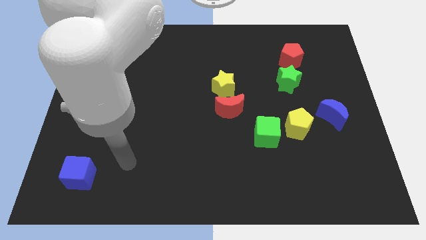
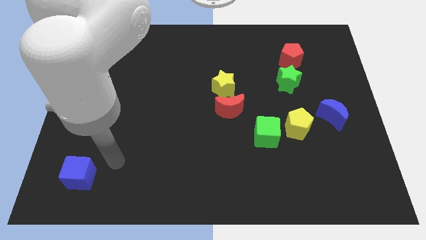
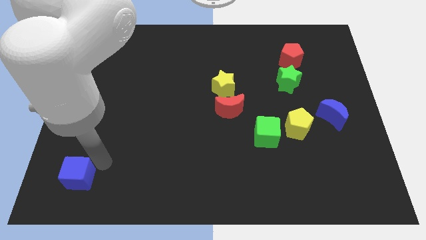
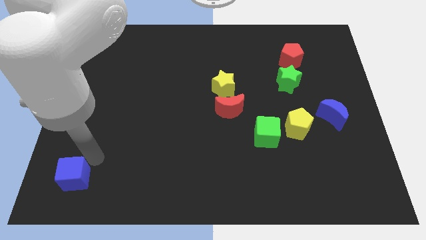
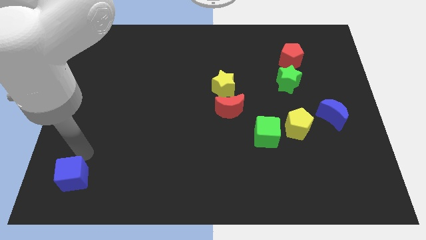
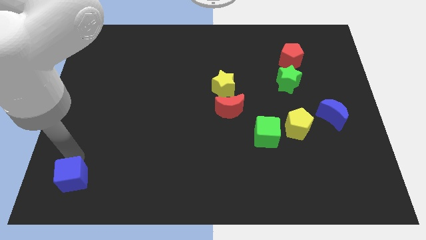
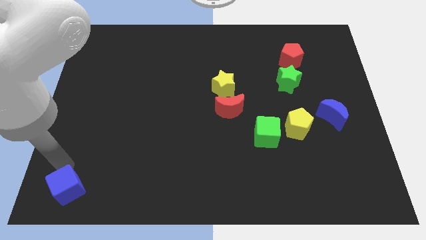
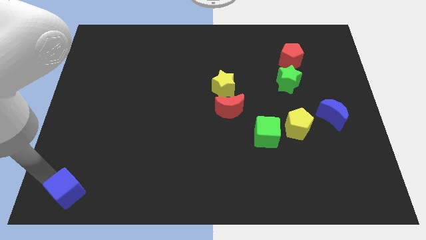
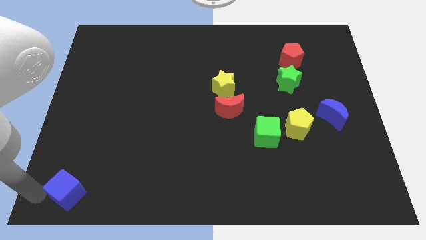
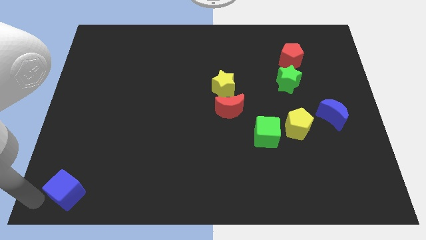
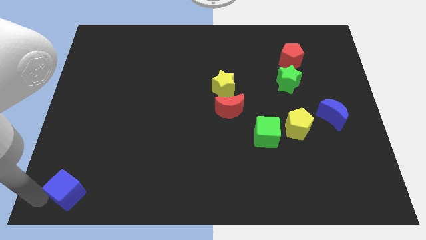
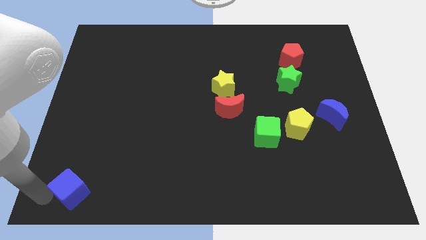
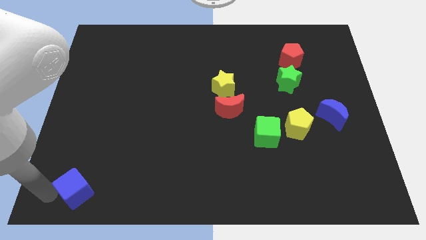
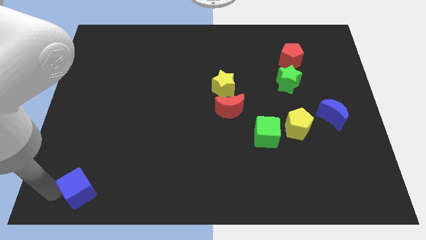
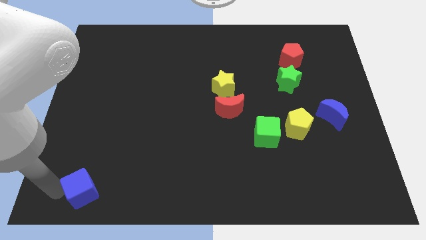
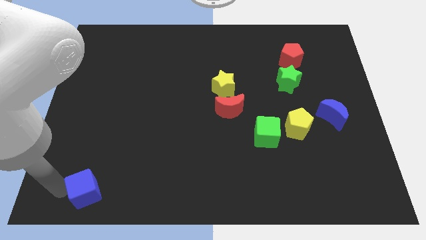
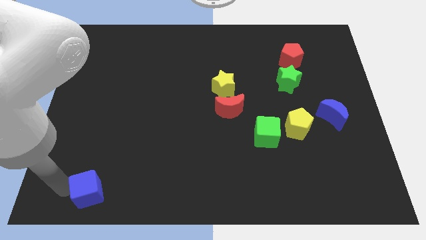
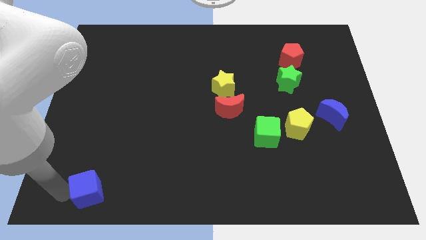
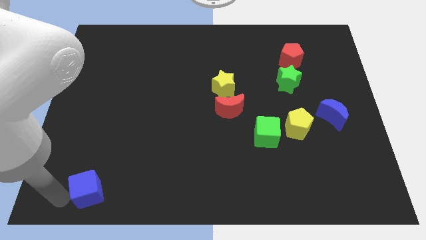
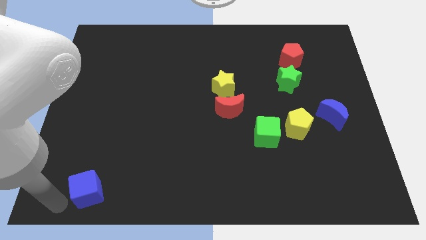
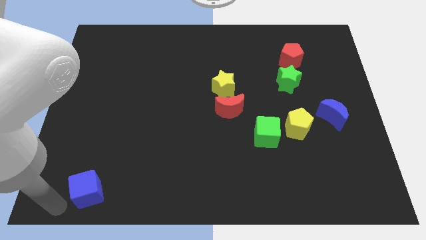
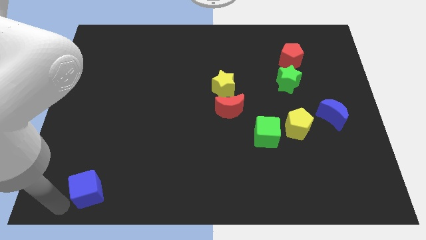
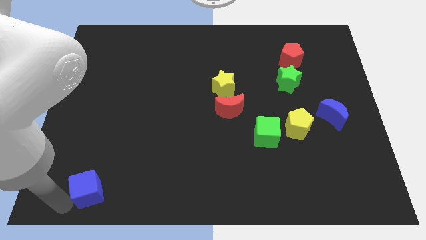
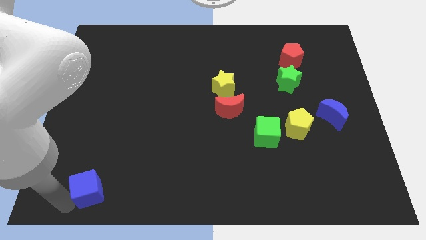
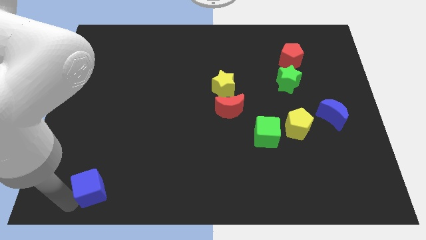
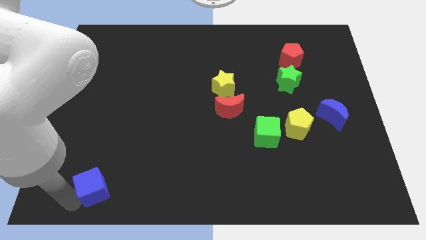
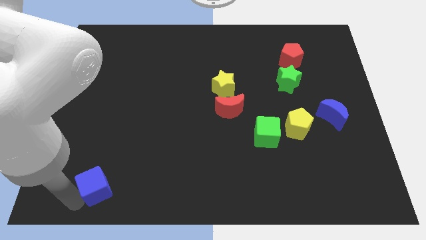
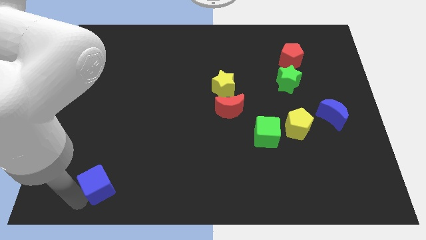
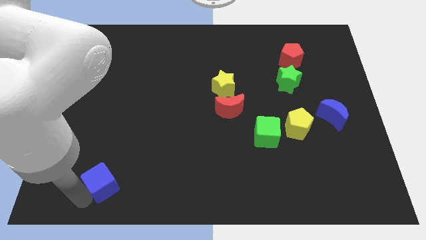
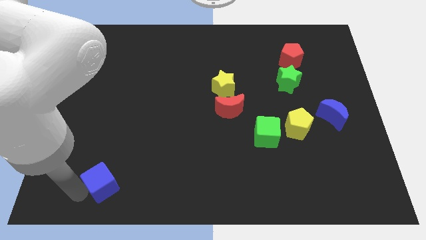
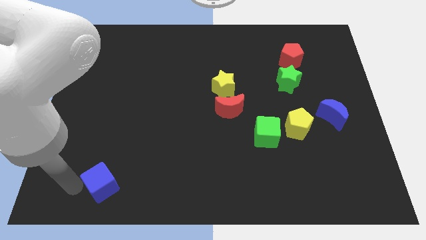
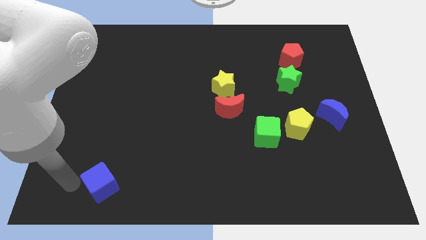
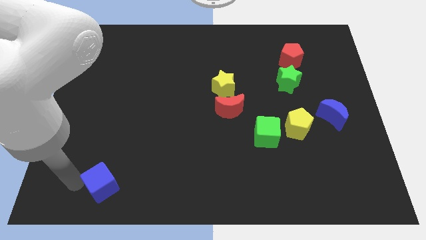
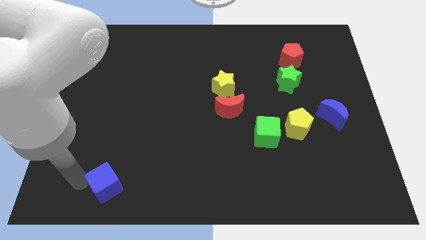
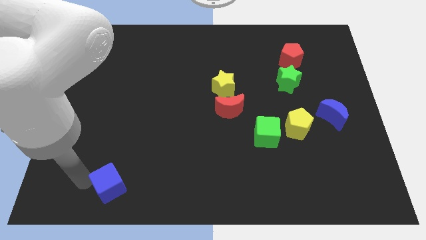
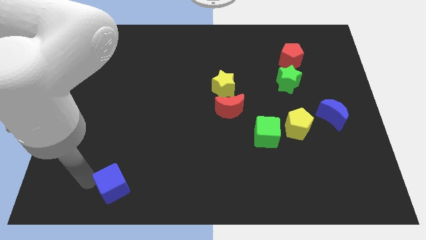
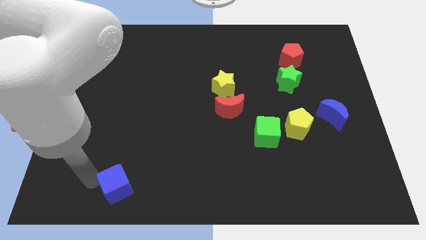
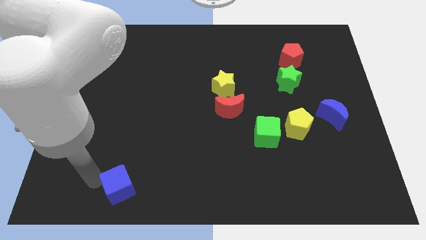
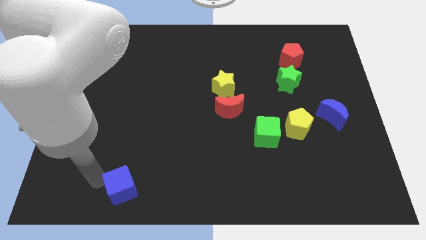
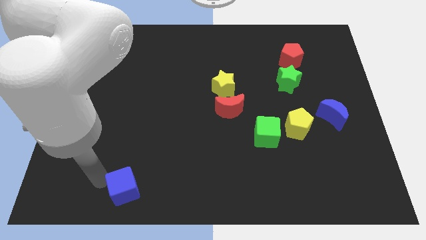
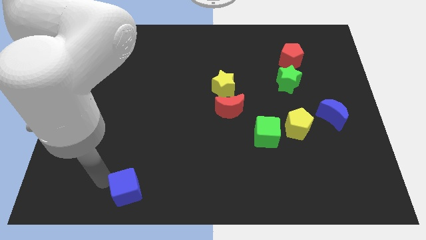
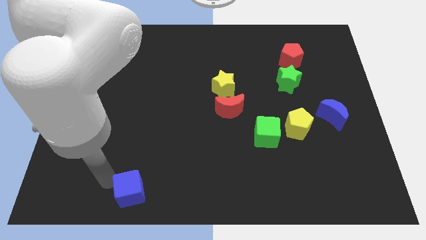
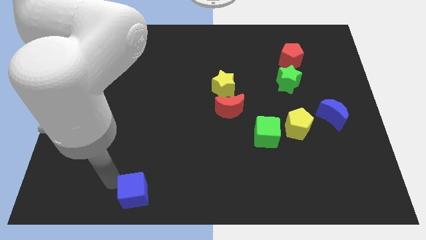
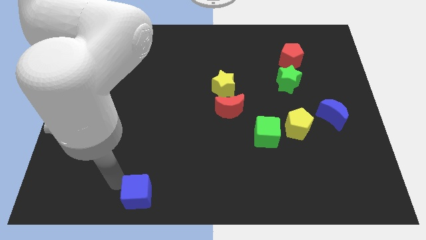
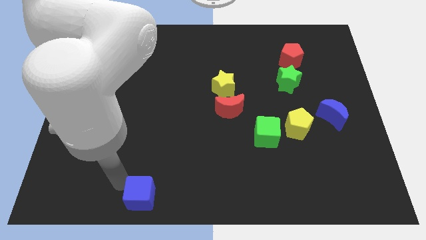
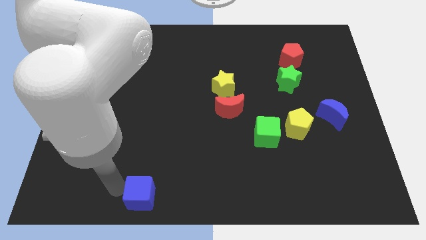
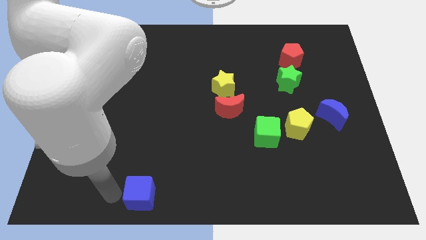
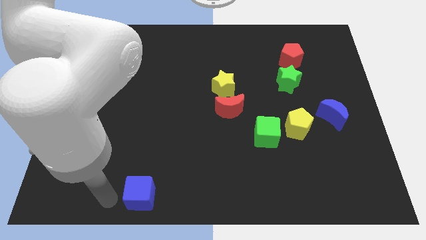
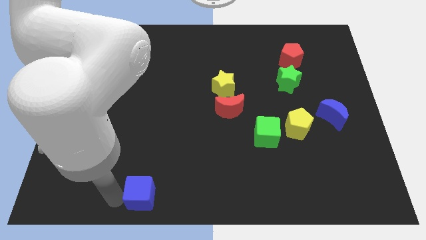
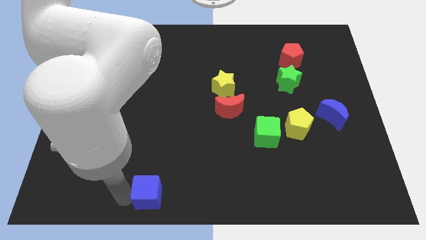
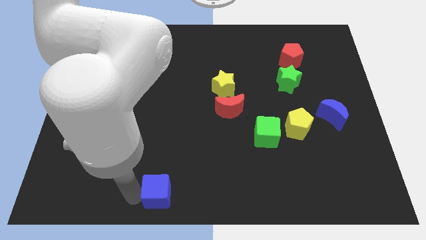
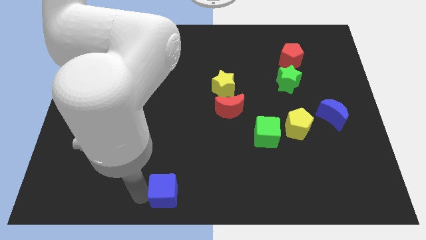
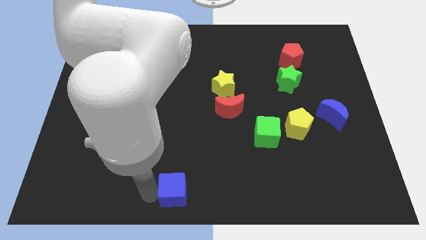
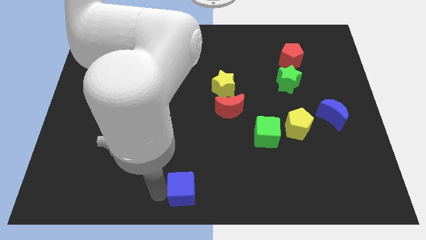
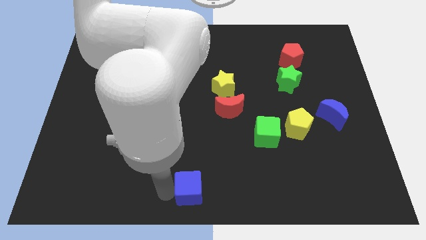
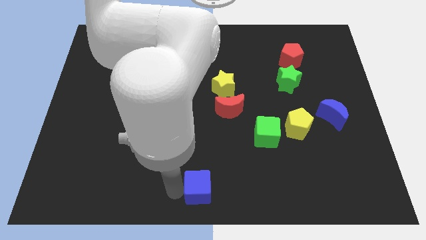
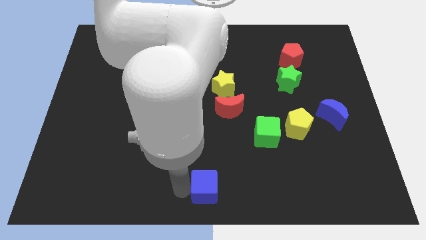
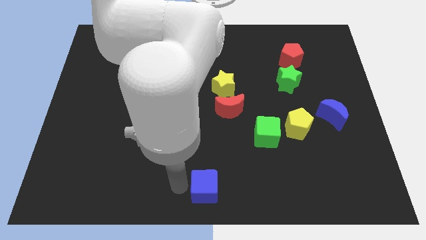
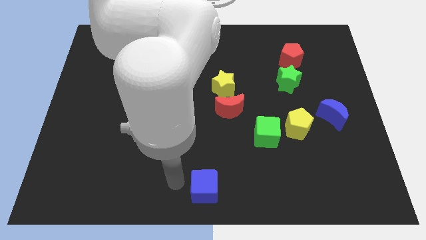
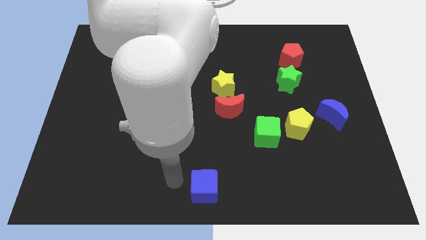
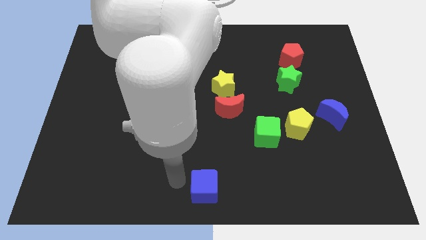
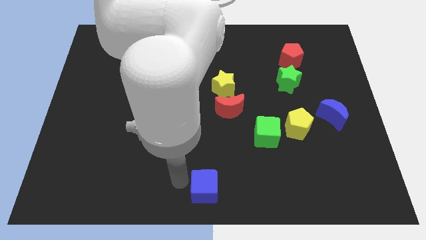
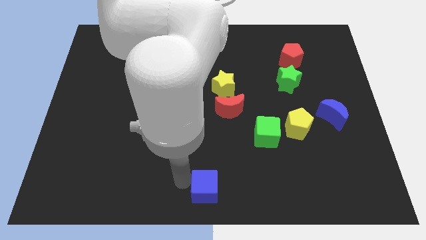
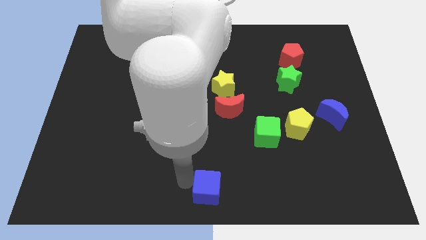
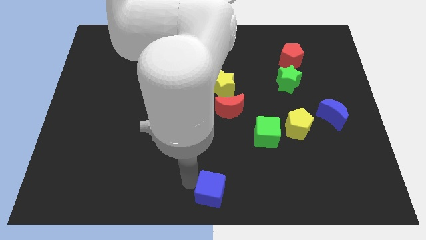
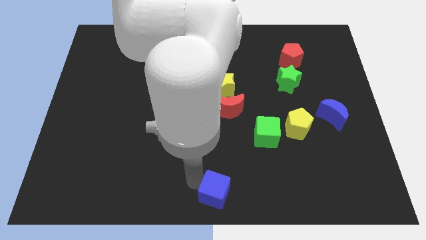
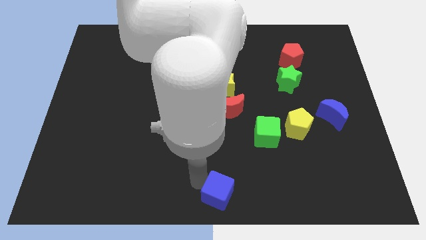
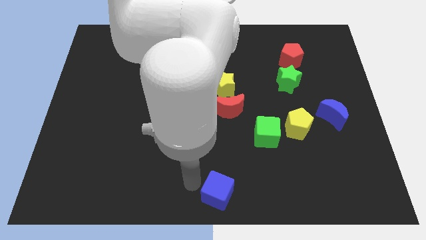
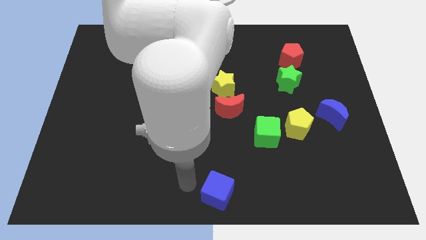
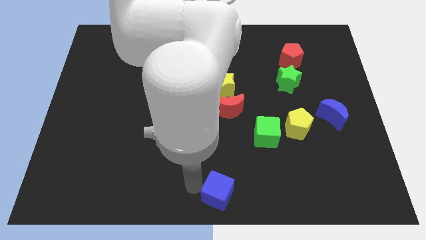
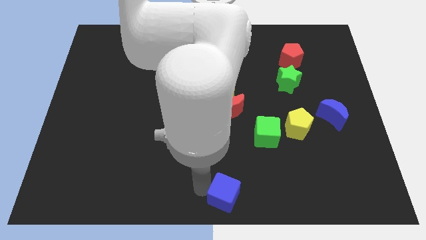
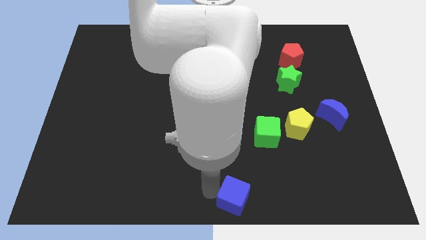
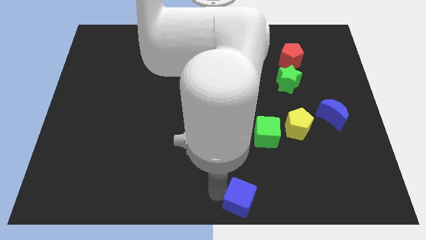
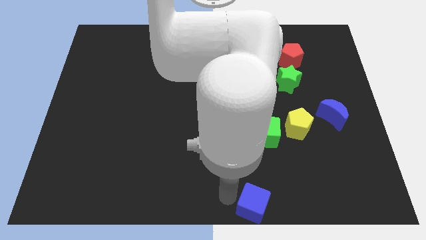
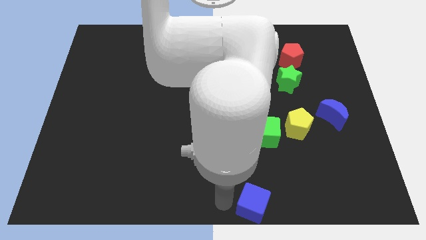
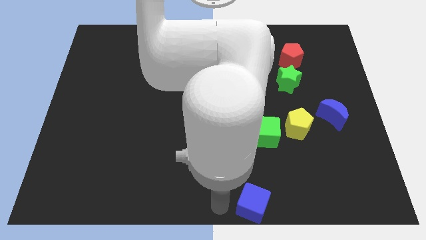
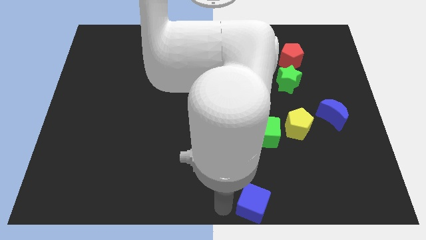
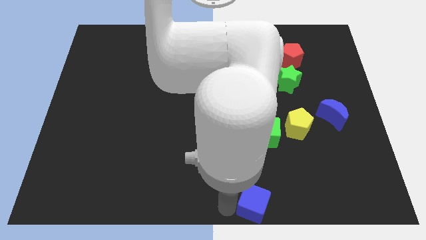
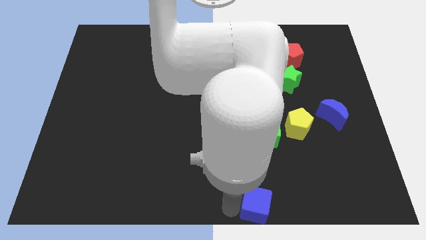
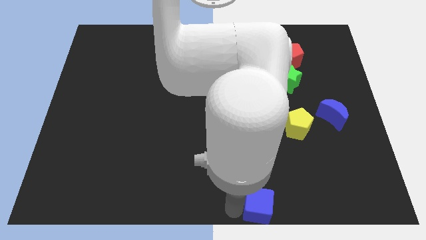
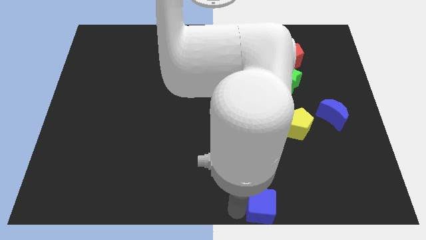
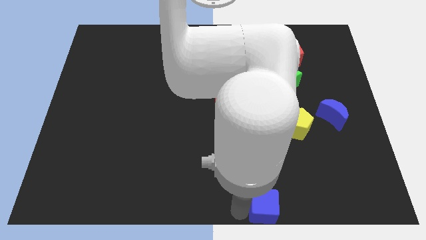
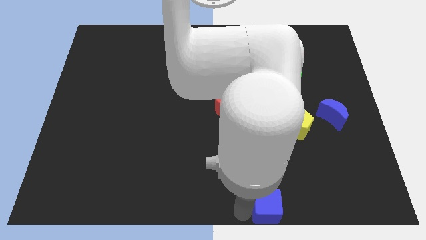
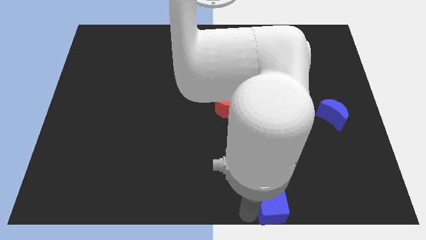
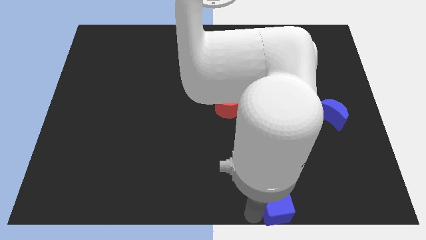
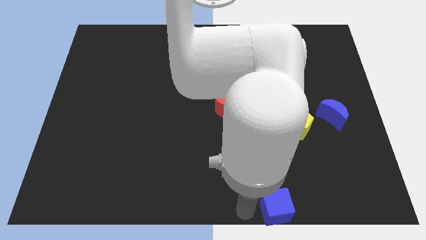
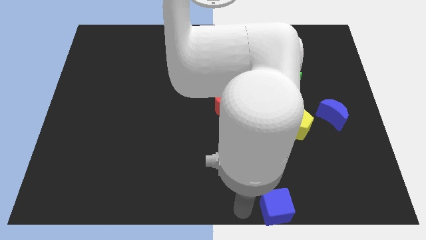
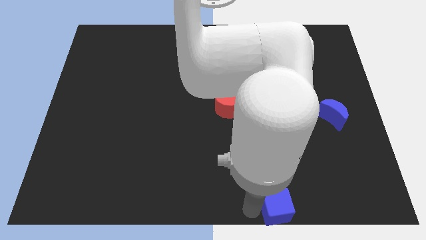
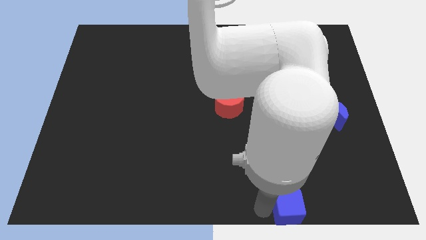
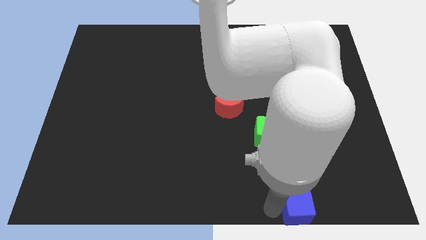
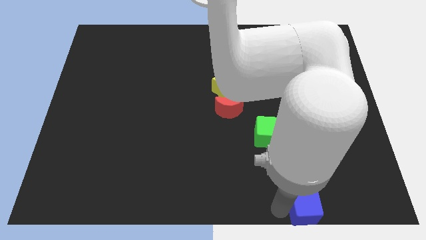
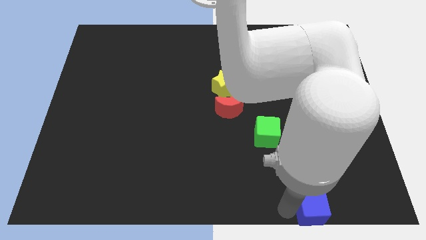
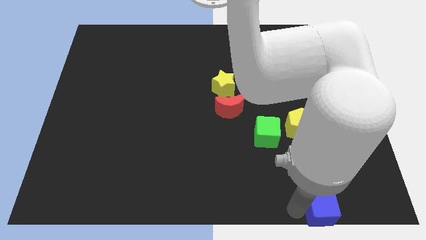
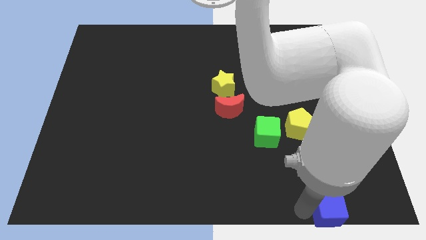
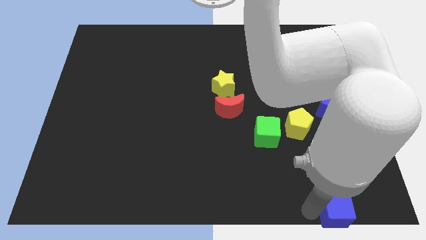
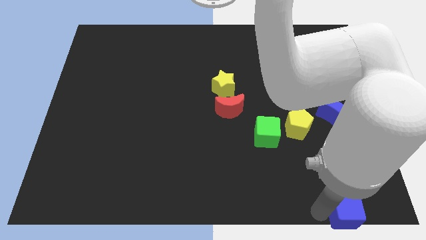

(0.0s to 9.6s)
put the blue cube to the bottom right corner
